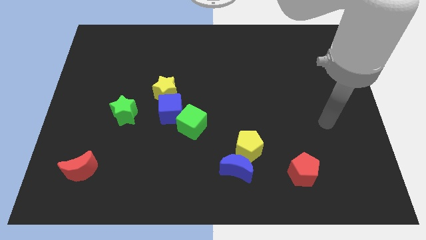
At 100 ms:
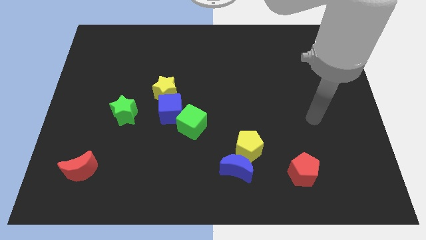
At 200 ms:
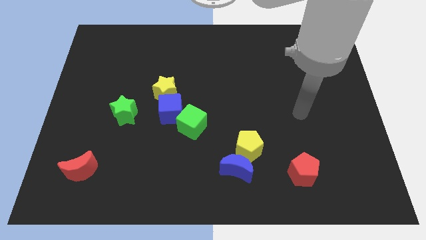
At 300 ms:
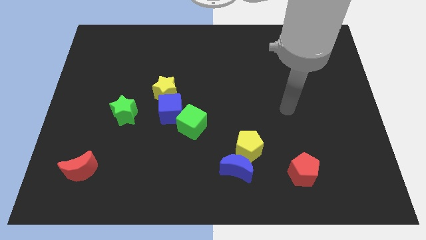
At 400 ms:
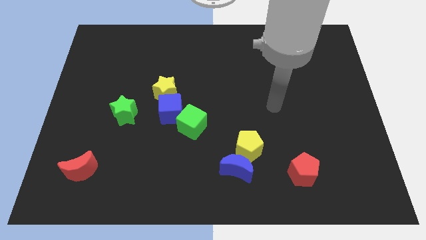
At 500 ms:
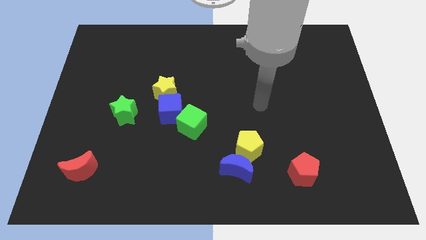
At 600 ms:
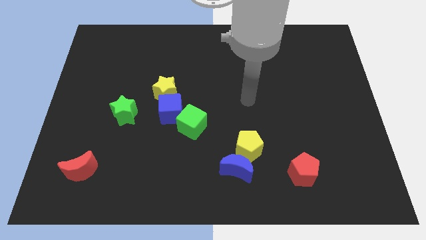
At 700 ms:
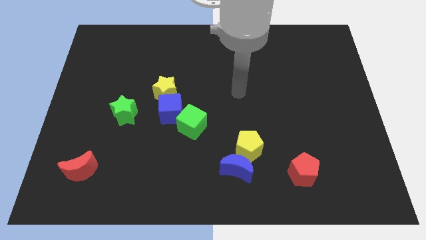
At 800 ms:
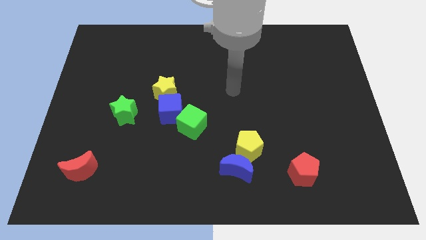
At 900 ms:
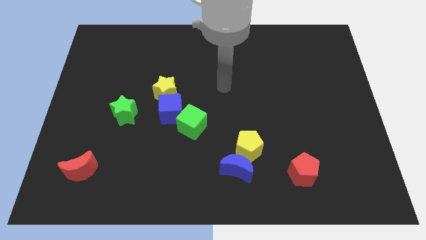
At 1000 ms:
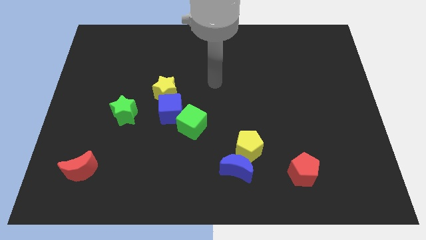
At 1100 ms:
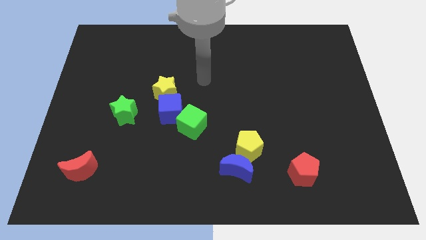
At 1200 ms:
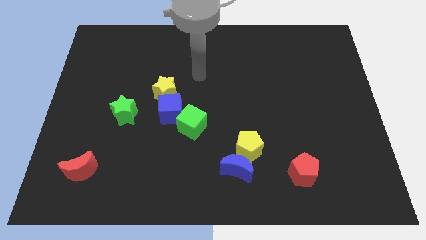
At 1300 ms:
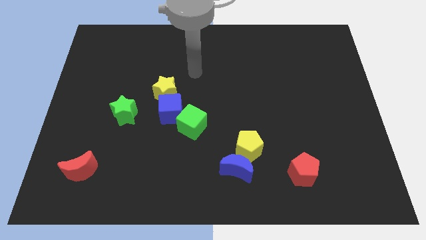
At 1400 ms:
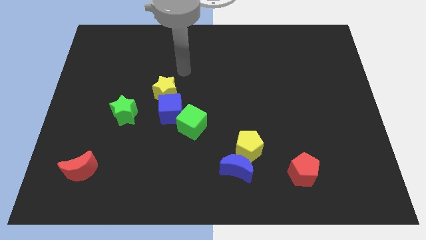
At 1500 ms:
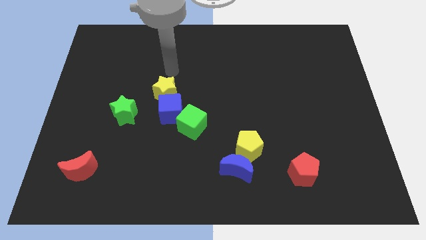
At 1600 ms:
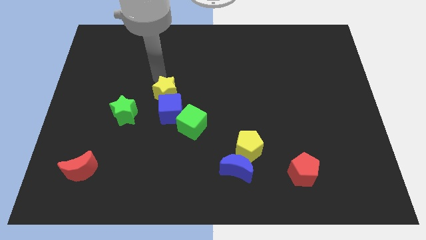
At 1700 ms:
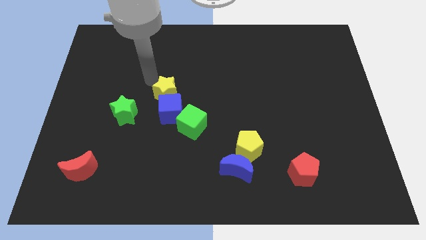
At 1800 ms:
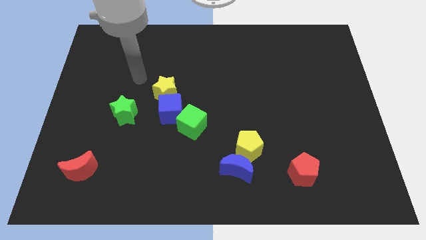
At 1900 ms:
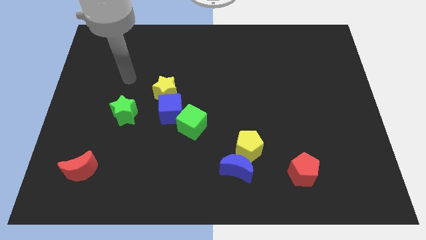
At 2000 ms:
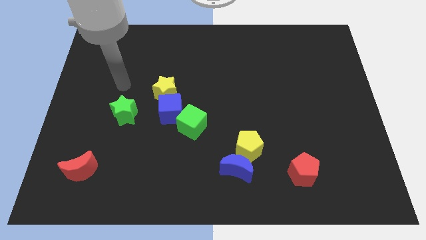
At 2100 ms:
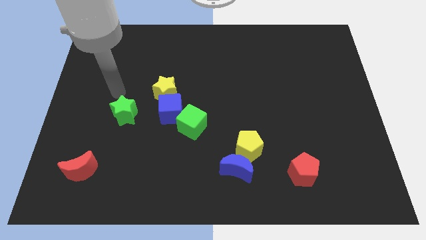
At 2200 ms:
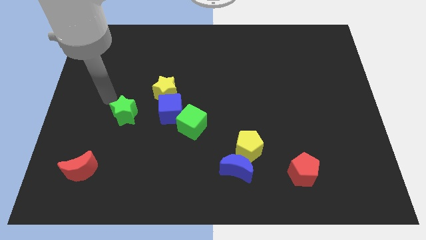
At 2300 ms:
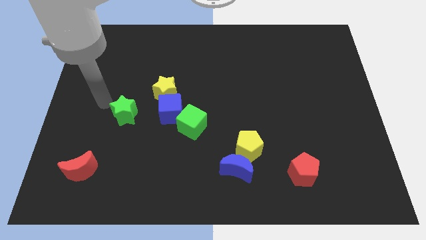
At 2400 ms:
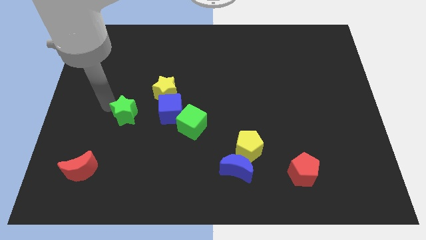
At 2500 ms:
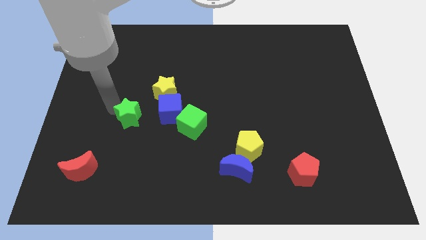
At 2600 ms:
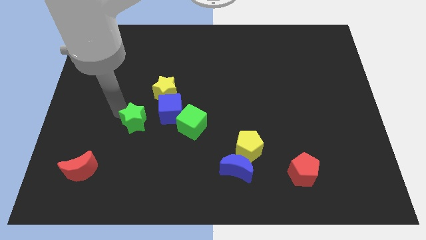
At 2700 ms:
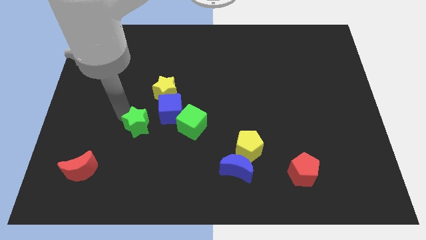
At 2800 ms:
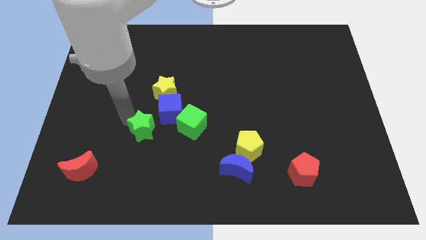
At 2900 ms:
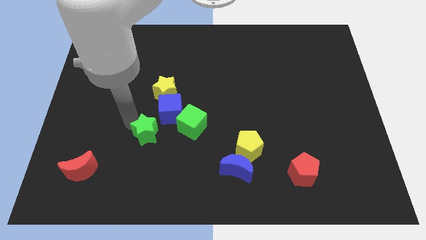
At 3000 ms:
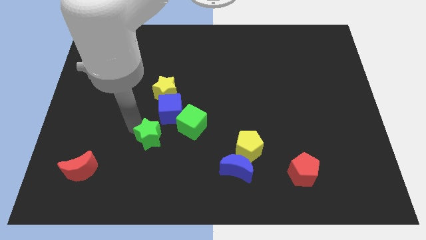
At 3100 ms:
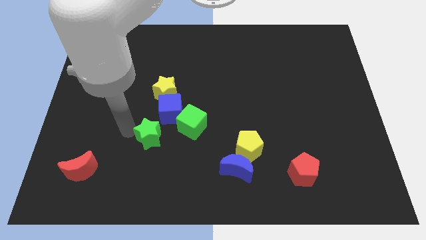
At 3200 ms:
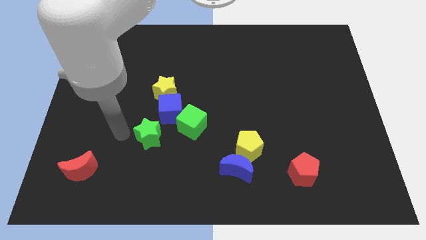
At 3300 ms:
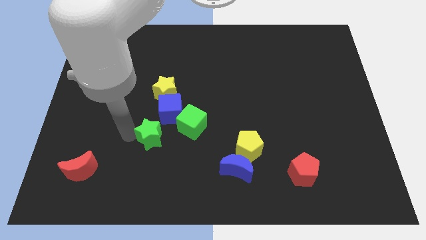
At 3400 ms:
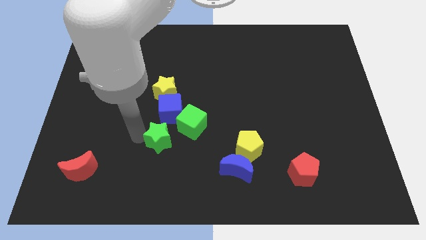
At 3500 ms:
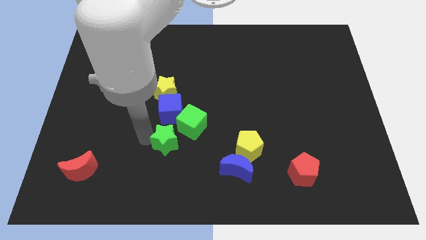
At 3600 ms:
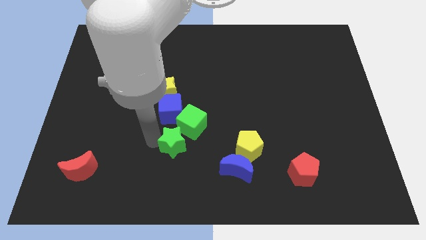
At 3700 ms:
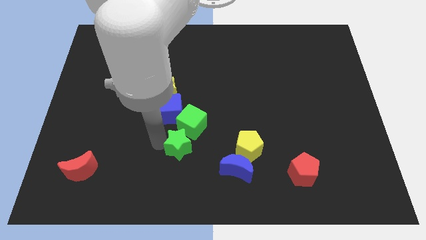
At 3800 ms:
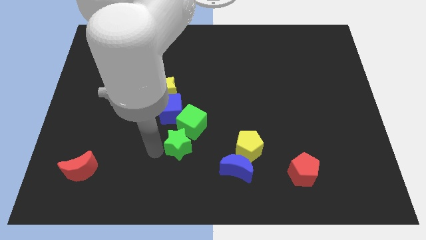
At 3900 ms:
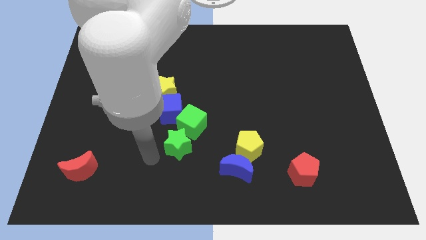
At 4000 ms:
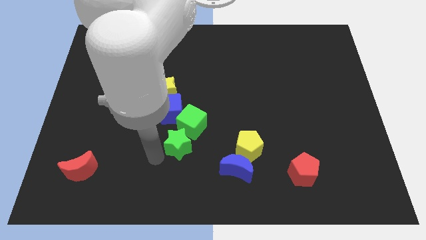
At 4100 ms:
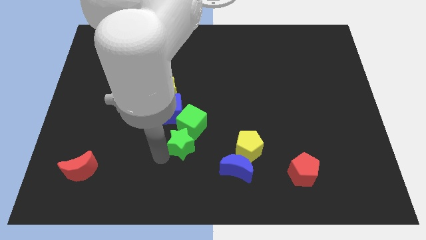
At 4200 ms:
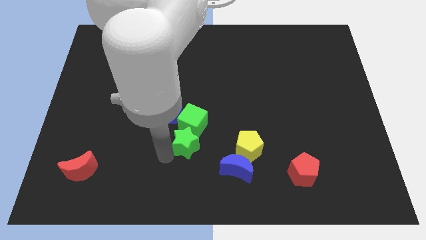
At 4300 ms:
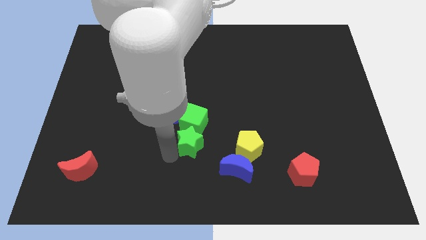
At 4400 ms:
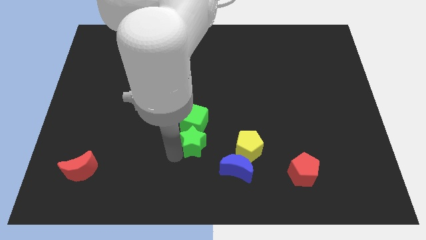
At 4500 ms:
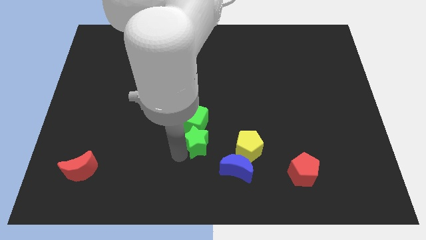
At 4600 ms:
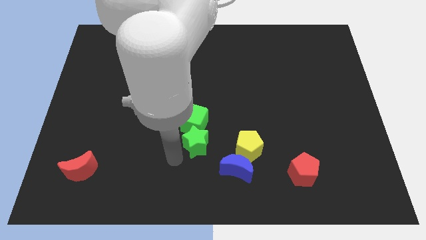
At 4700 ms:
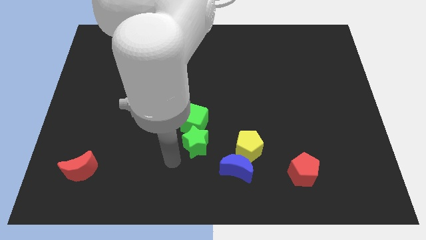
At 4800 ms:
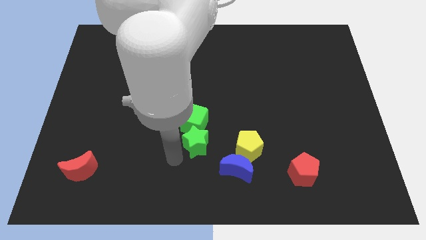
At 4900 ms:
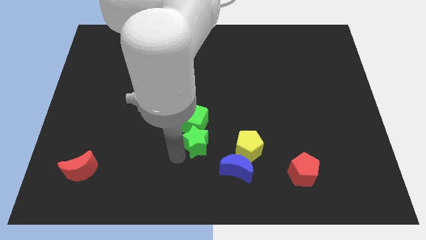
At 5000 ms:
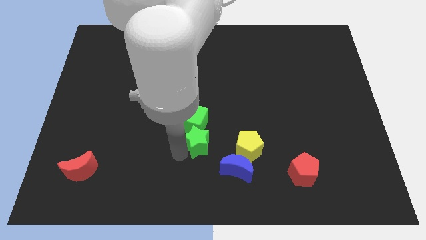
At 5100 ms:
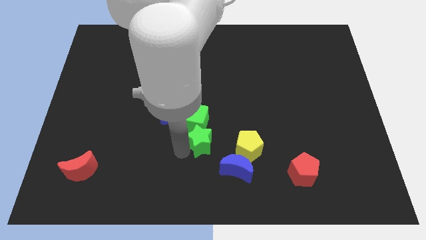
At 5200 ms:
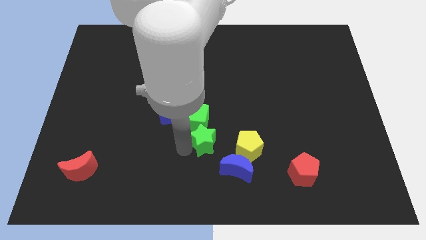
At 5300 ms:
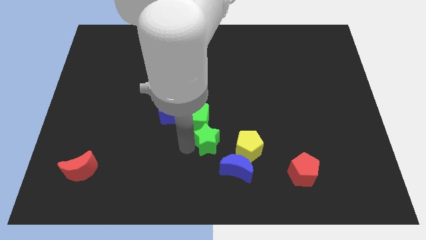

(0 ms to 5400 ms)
push the green star to the top left side of the yellow pentagon

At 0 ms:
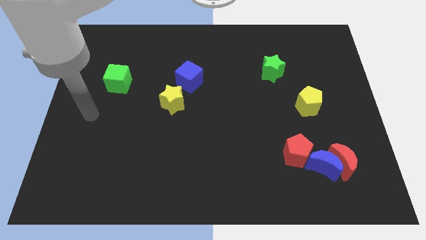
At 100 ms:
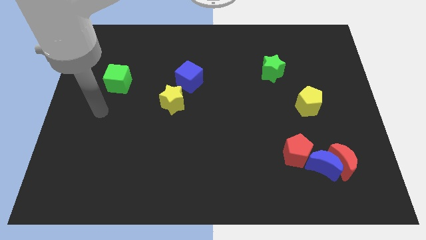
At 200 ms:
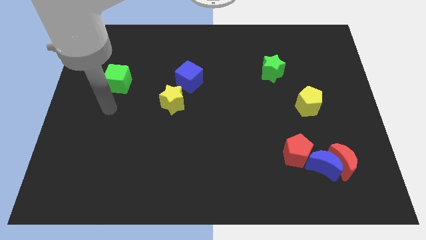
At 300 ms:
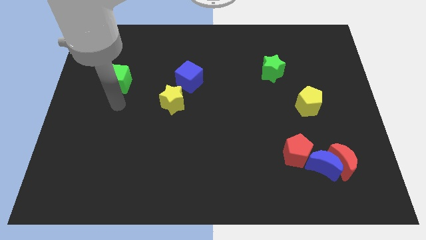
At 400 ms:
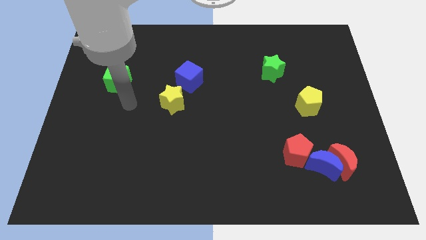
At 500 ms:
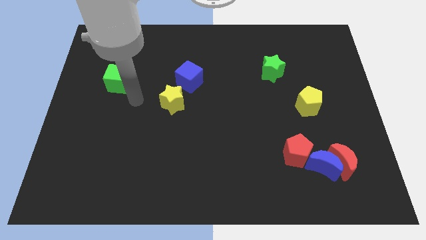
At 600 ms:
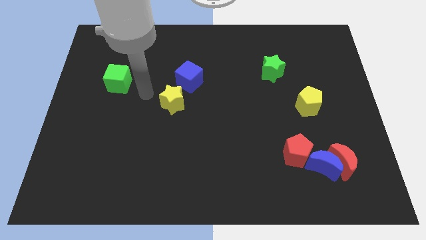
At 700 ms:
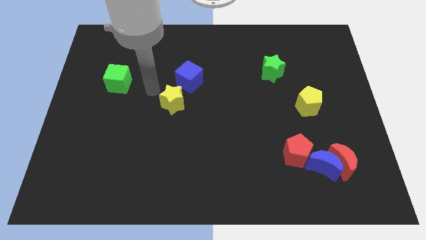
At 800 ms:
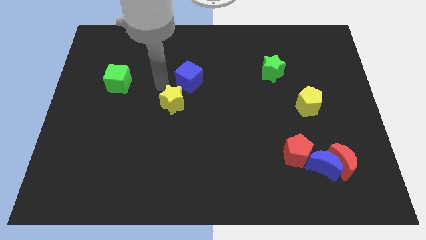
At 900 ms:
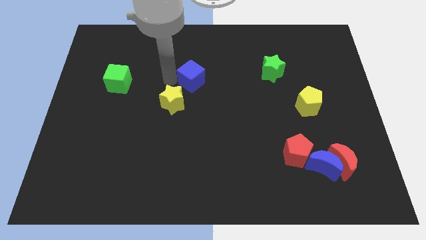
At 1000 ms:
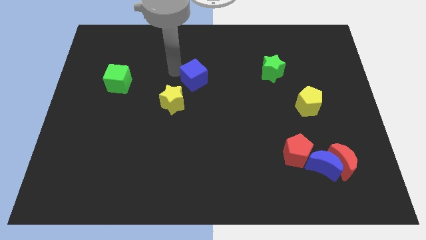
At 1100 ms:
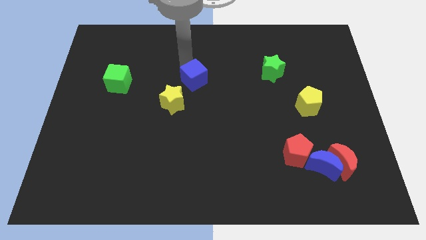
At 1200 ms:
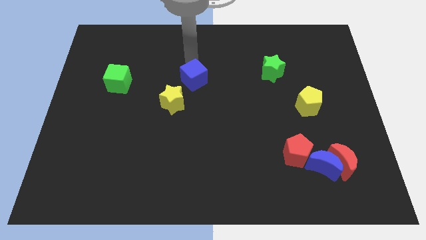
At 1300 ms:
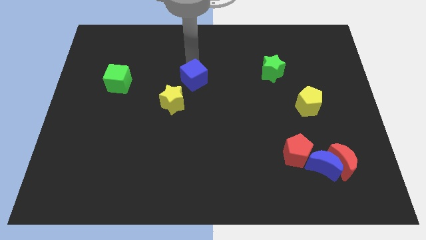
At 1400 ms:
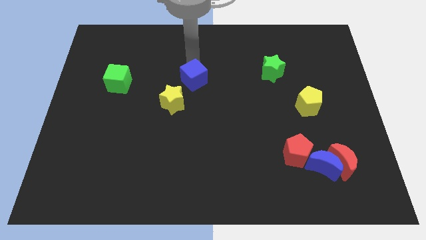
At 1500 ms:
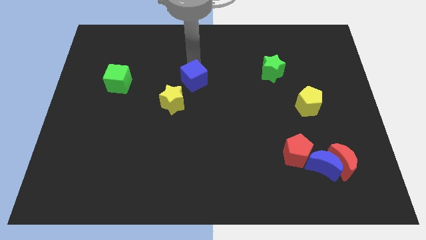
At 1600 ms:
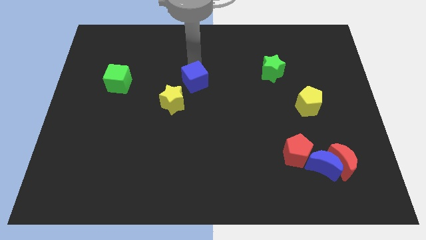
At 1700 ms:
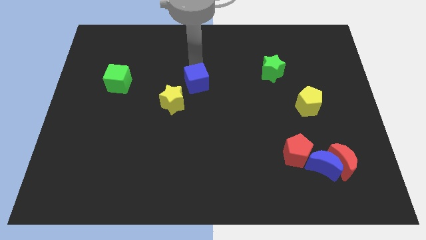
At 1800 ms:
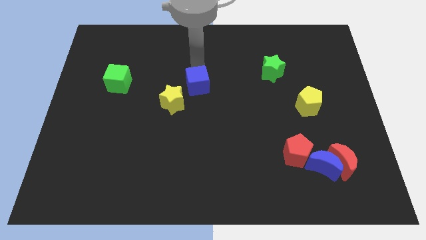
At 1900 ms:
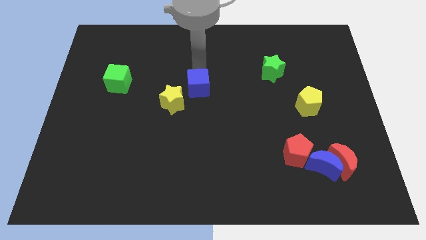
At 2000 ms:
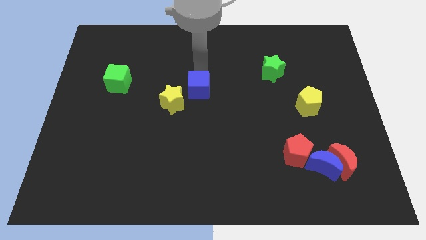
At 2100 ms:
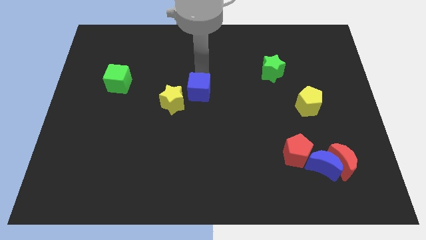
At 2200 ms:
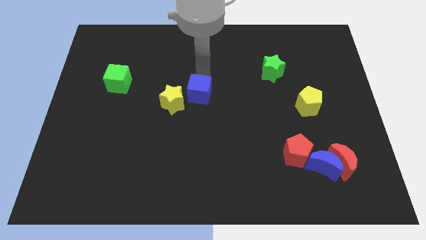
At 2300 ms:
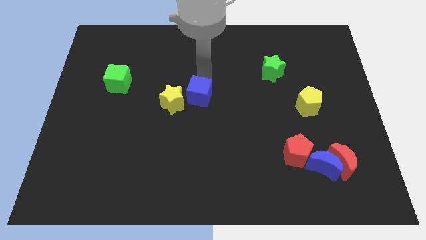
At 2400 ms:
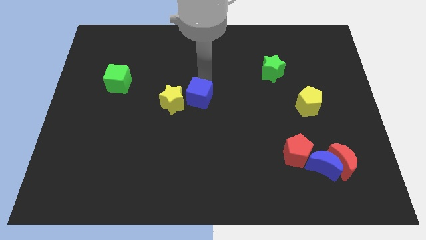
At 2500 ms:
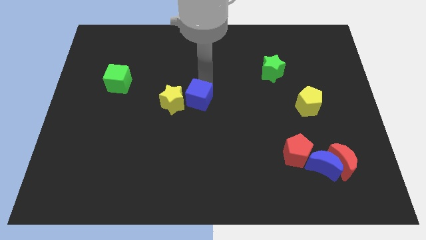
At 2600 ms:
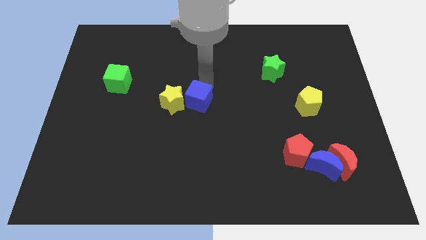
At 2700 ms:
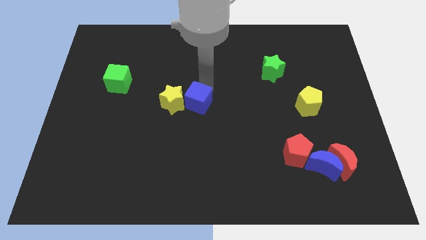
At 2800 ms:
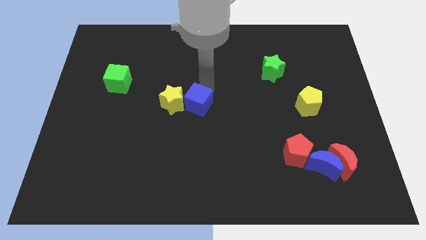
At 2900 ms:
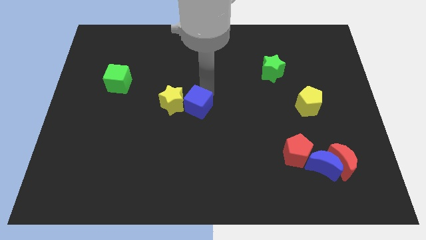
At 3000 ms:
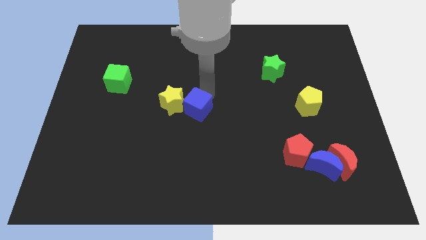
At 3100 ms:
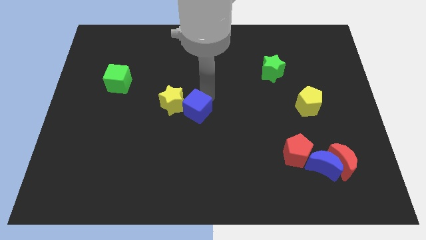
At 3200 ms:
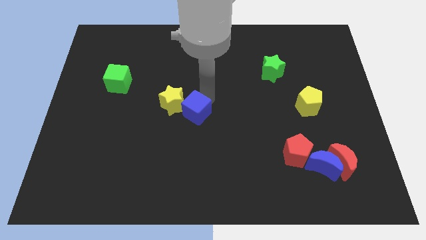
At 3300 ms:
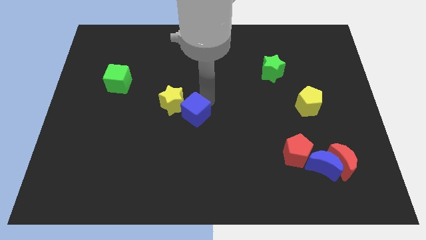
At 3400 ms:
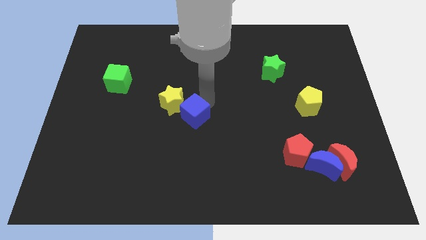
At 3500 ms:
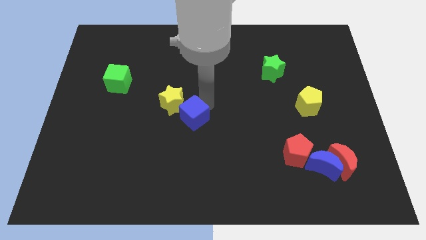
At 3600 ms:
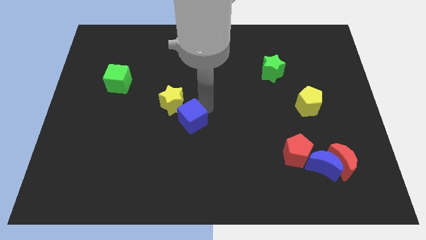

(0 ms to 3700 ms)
push the blue cube below the yellow star
